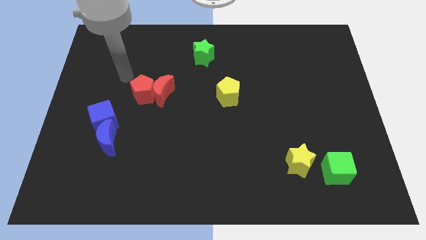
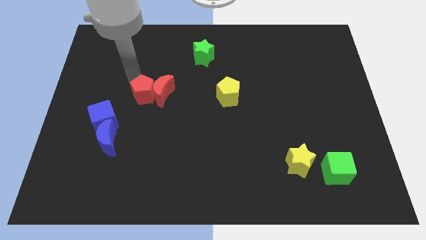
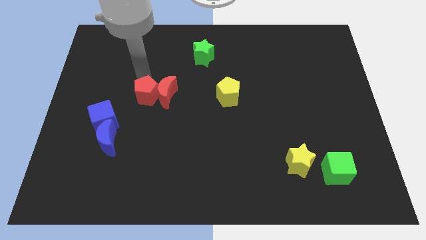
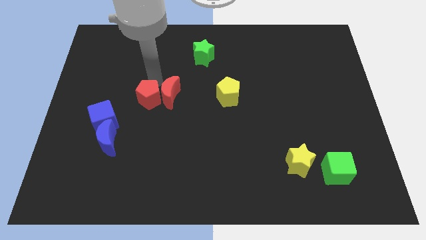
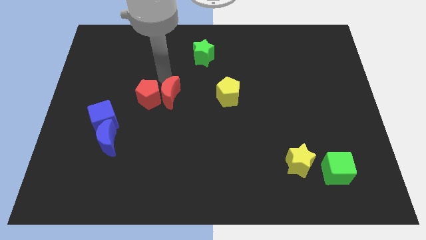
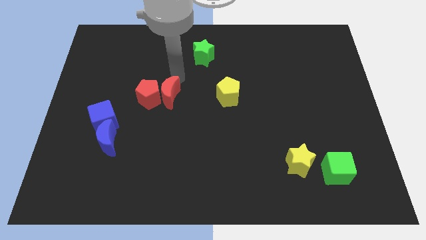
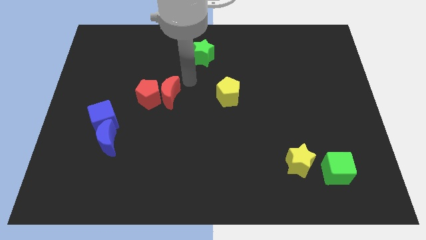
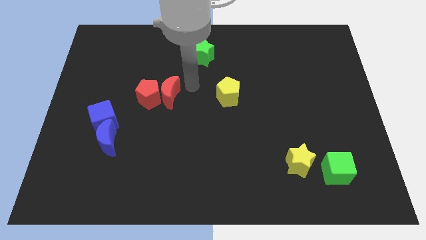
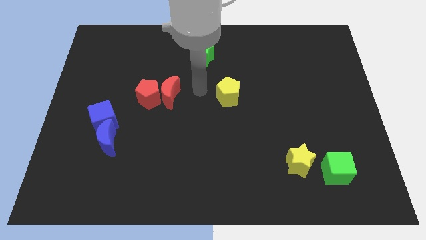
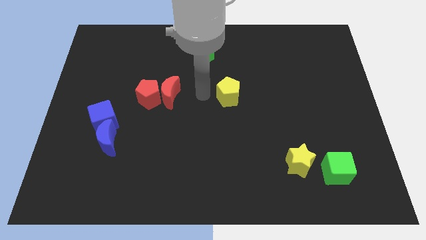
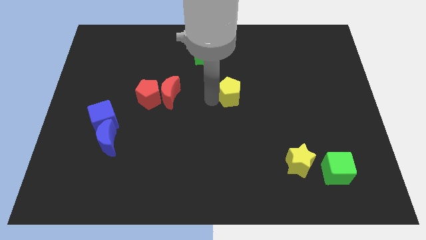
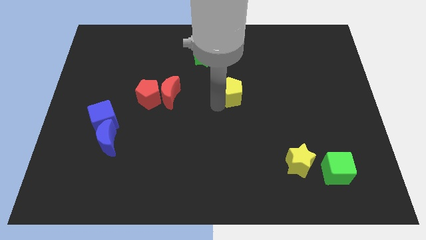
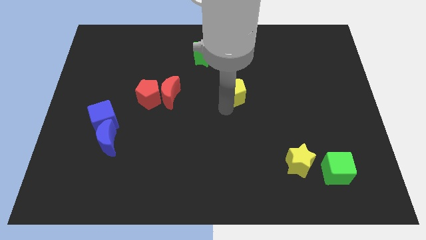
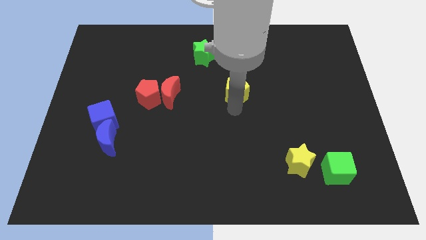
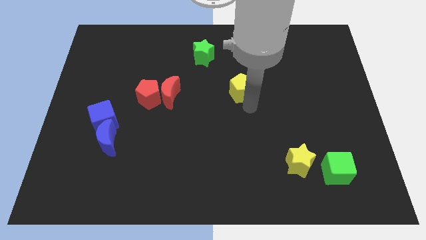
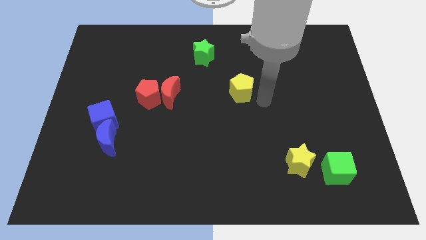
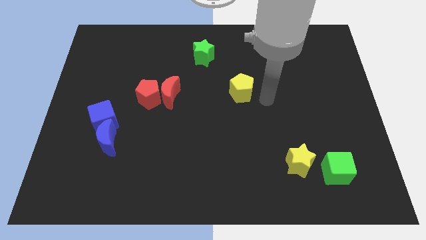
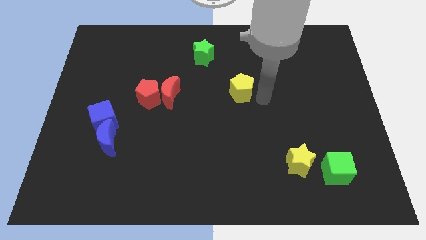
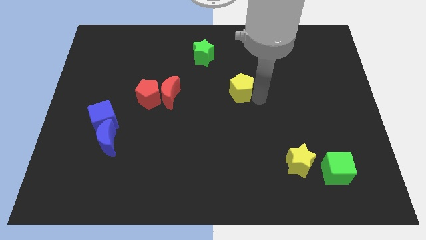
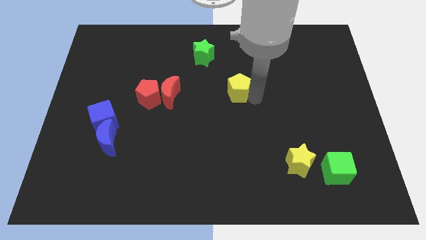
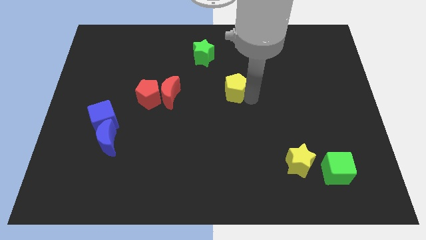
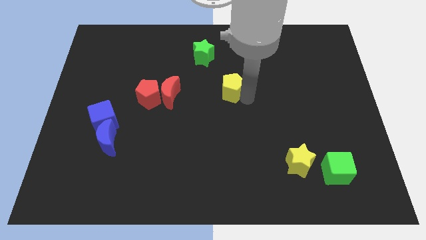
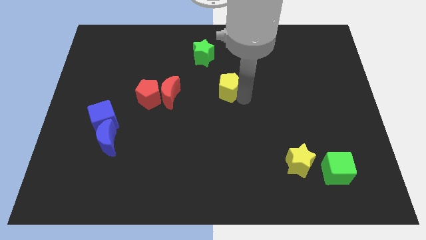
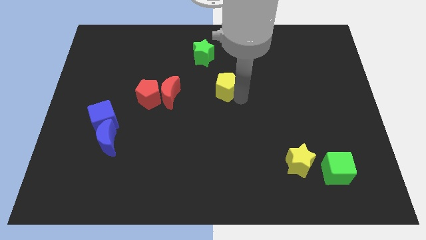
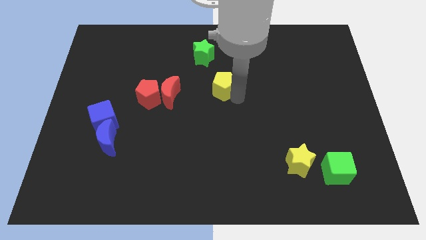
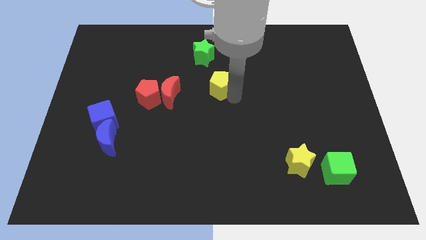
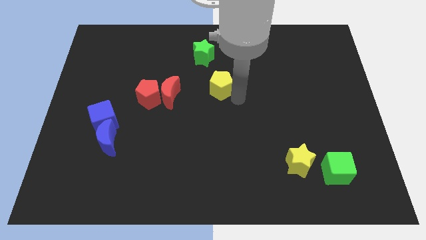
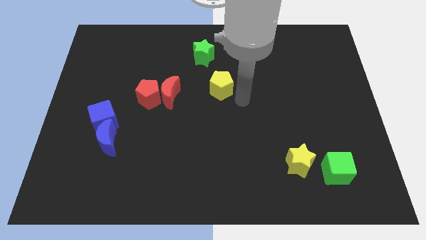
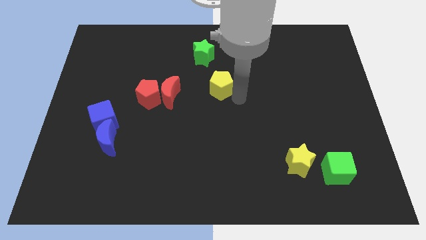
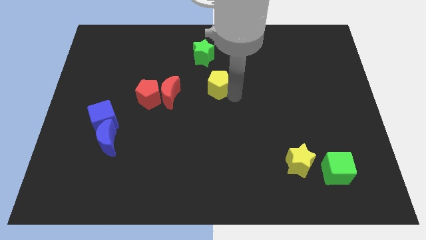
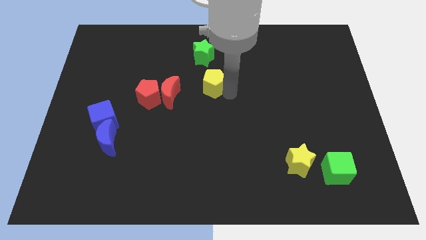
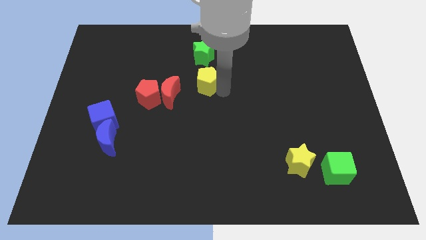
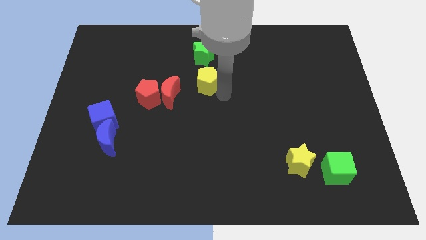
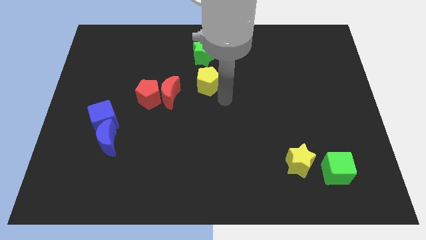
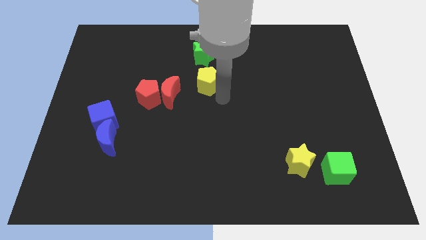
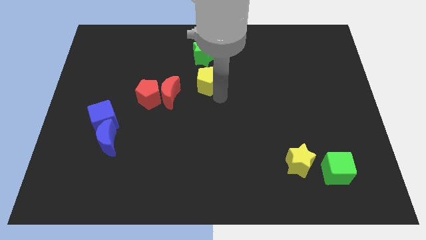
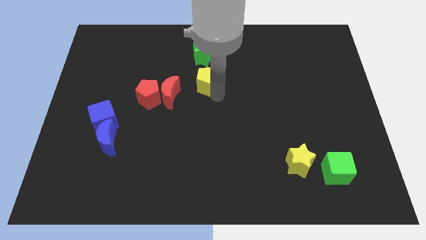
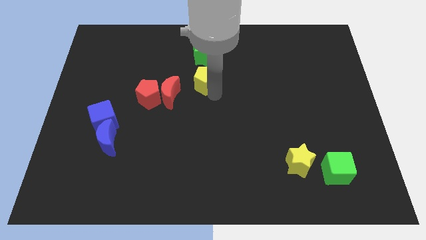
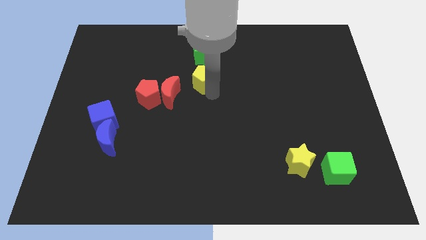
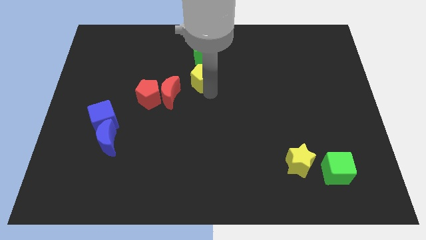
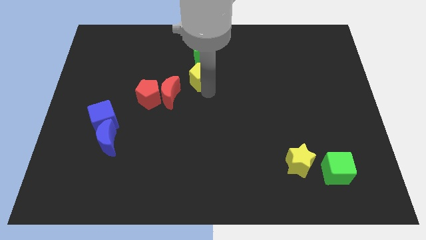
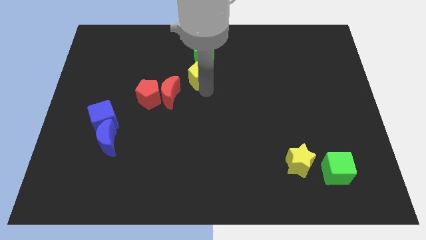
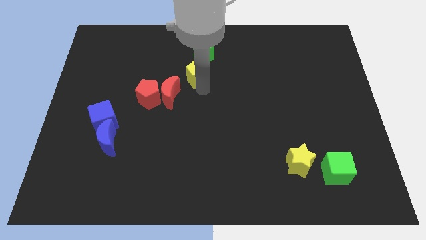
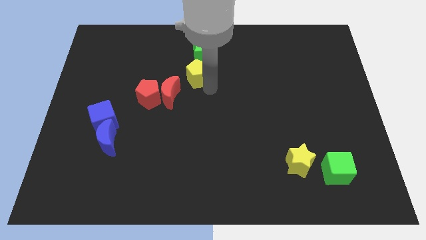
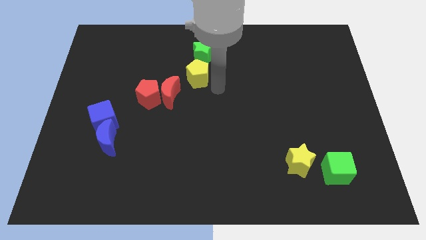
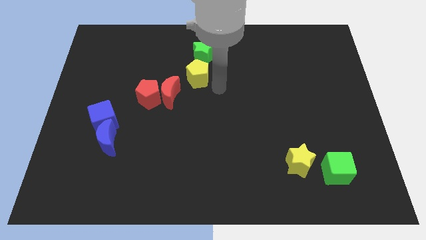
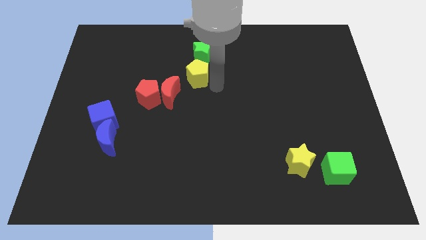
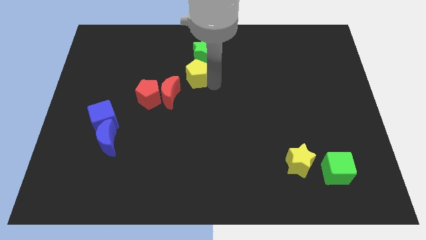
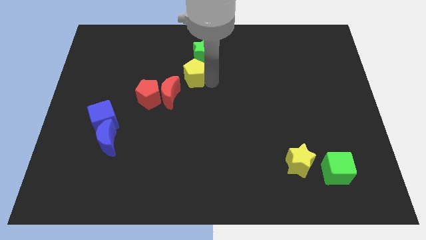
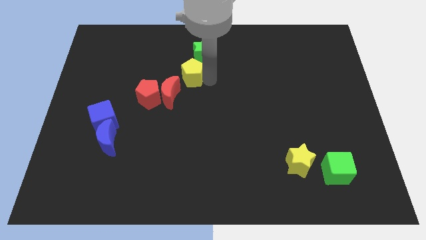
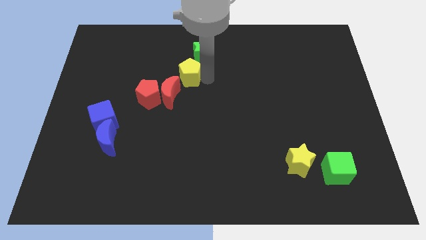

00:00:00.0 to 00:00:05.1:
push the yellow pentagon above the red moon

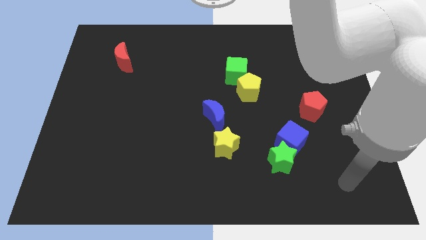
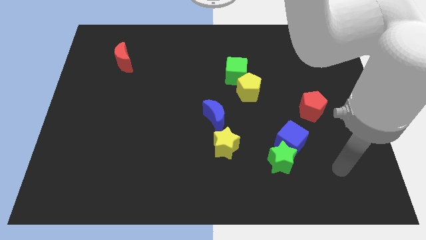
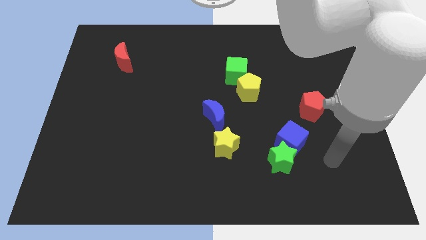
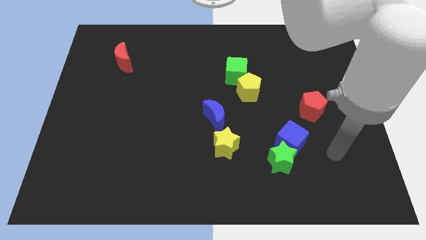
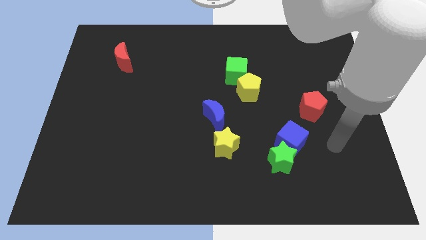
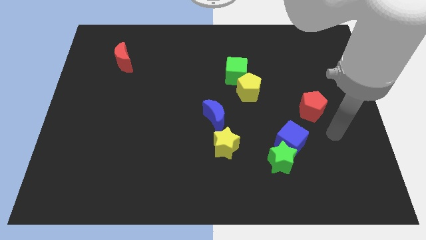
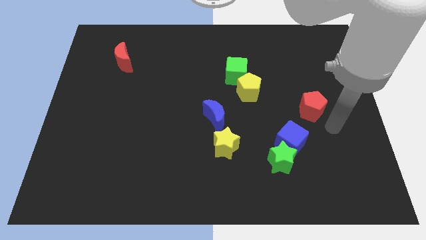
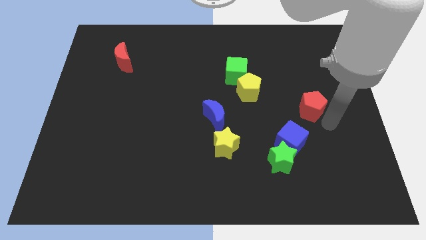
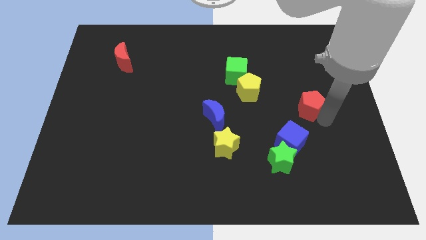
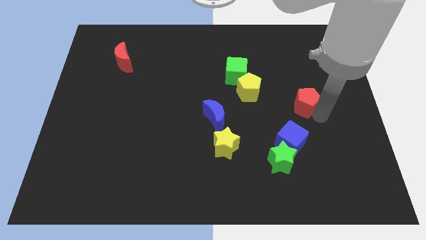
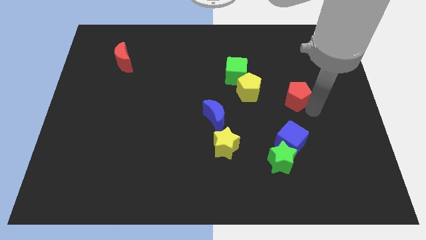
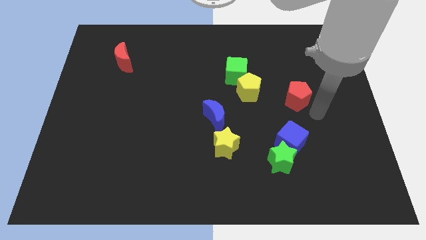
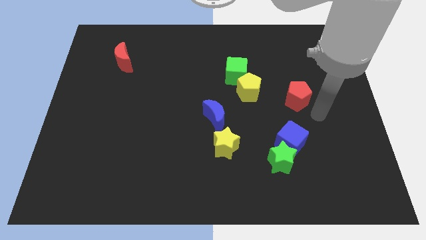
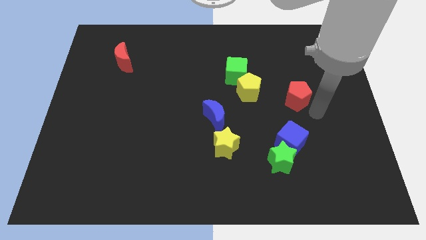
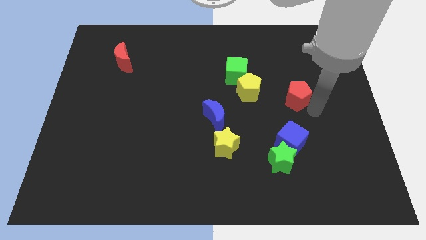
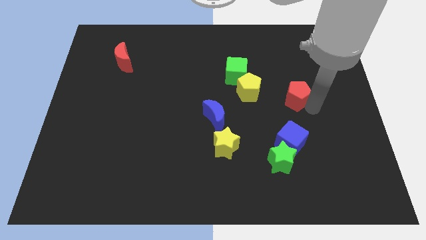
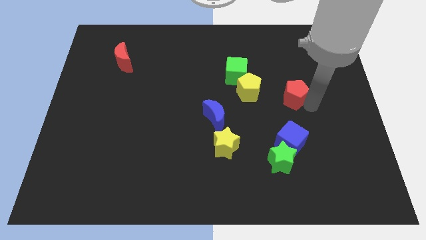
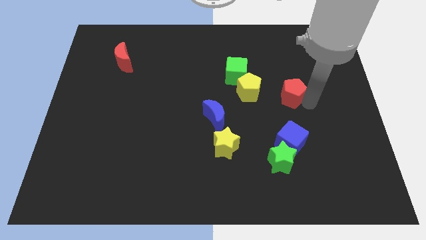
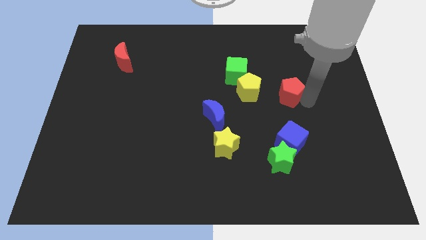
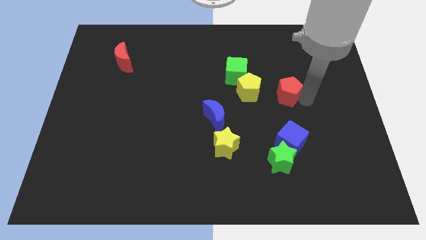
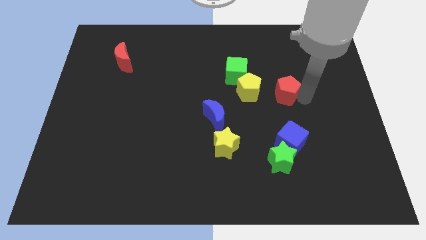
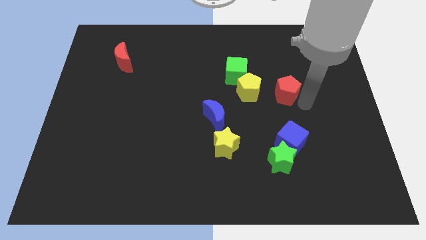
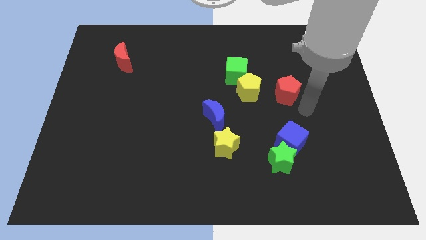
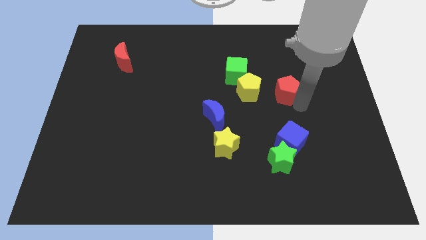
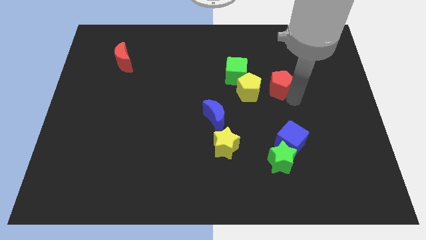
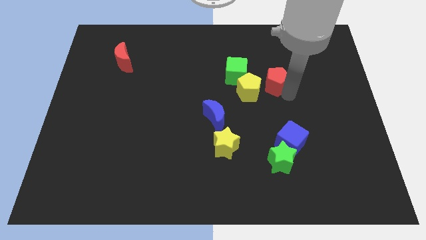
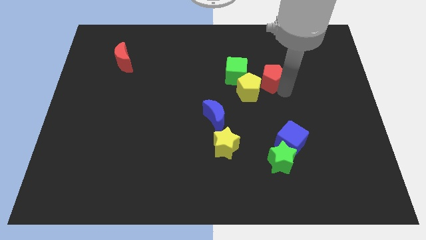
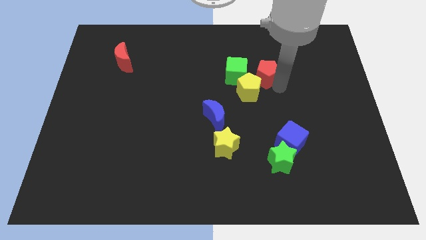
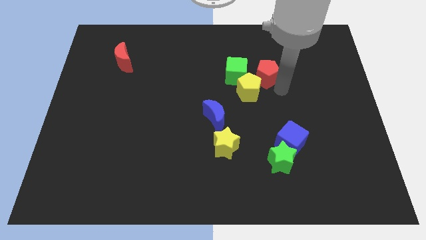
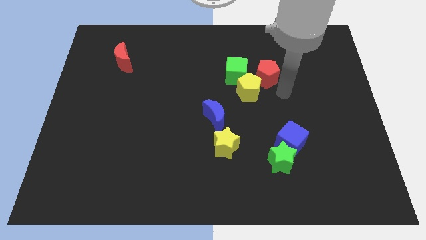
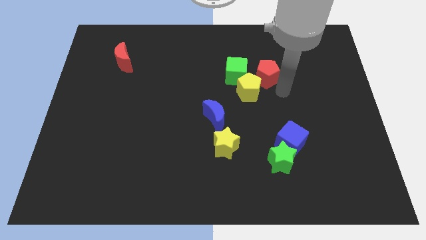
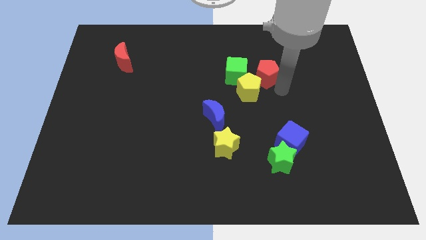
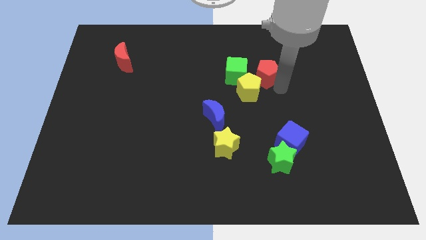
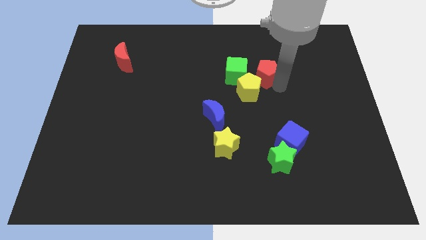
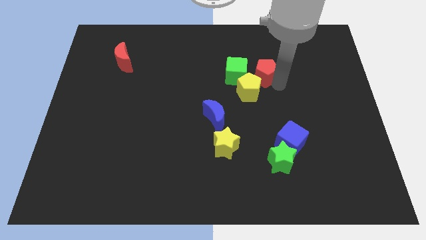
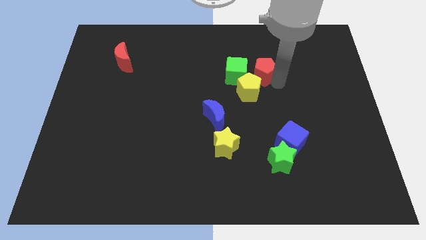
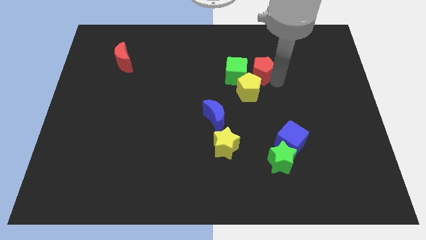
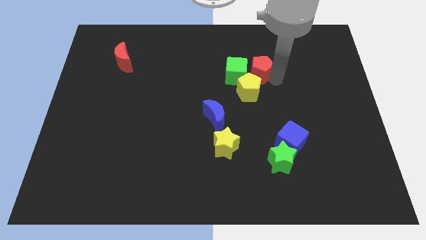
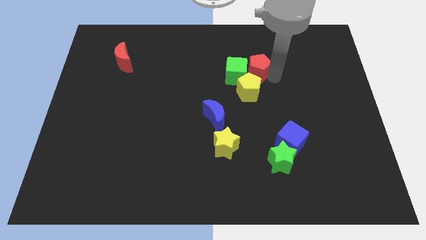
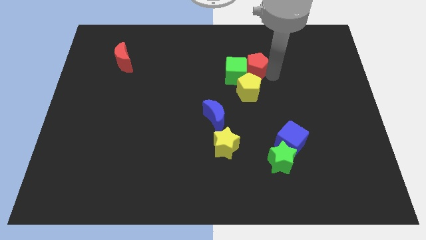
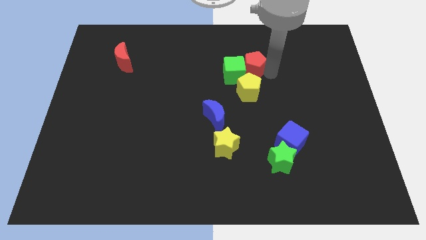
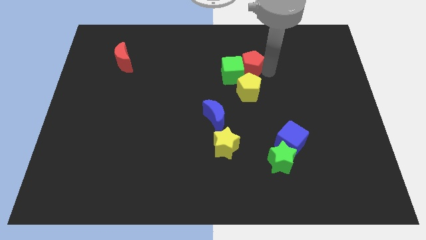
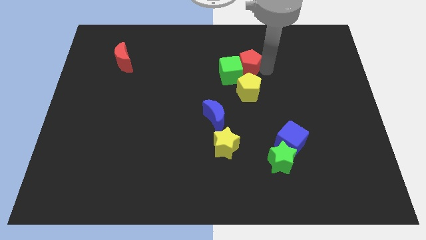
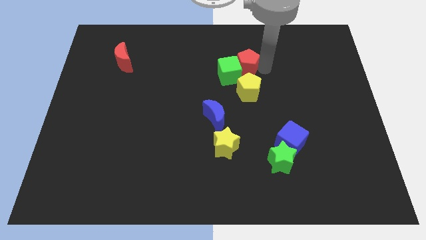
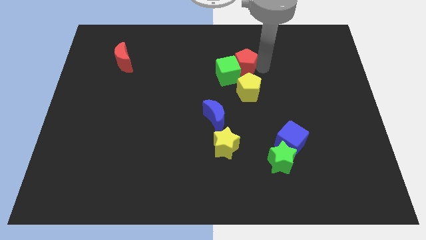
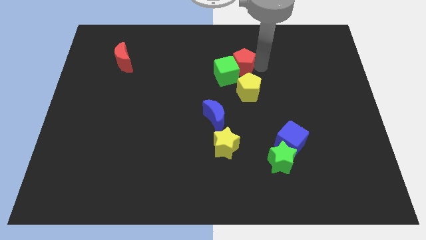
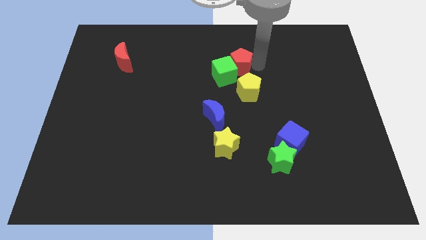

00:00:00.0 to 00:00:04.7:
move the red pentagon to the top left side of the yellow pentagon
